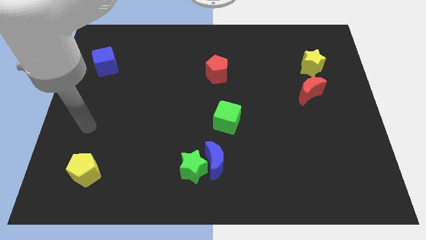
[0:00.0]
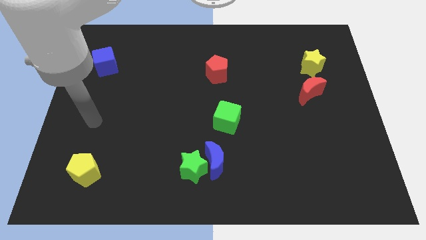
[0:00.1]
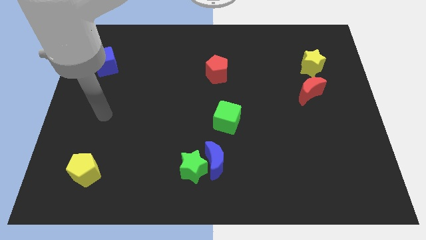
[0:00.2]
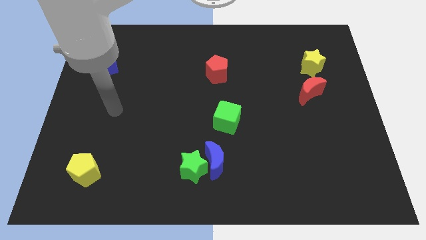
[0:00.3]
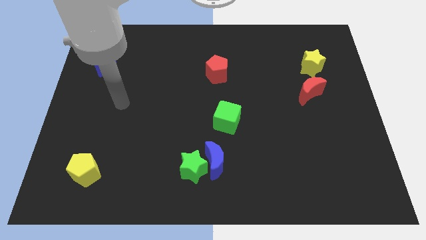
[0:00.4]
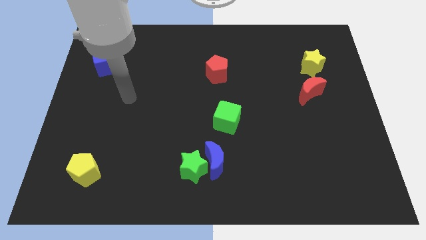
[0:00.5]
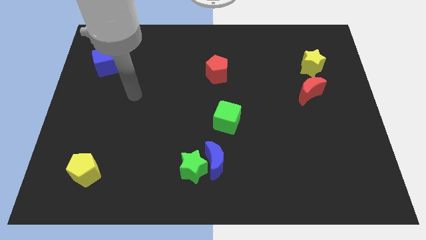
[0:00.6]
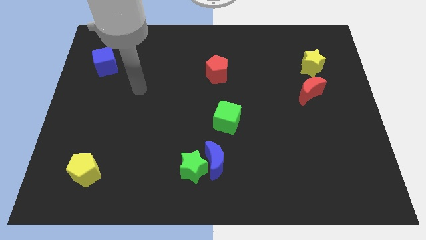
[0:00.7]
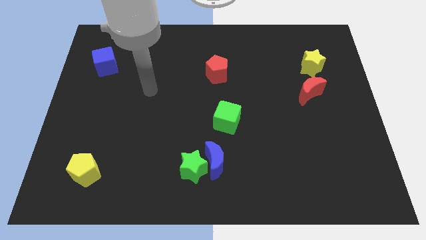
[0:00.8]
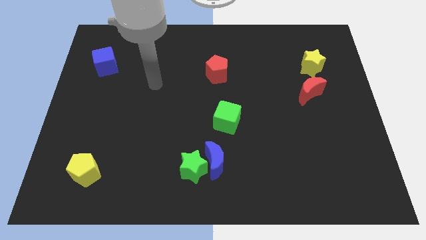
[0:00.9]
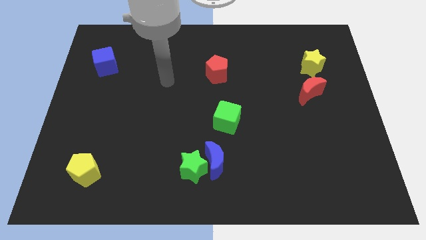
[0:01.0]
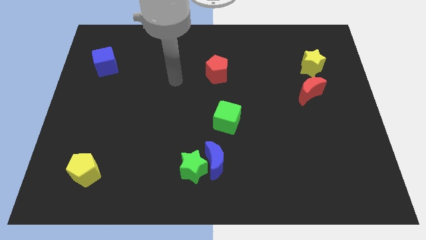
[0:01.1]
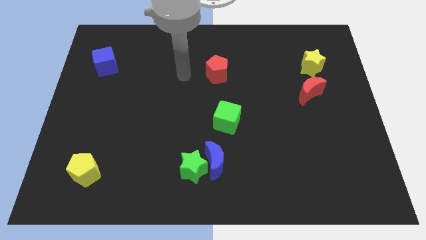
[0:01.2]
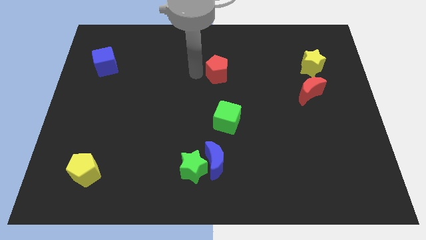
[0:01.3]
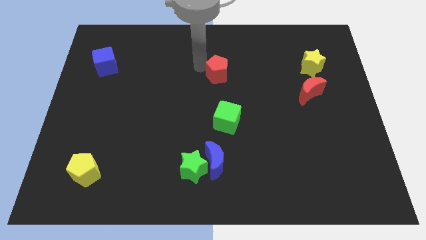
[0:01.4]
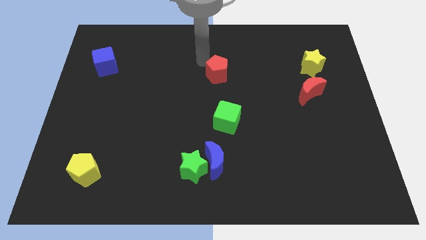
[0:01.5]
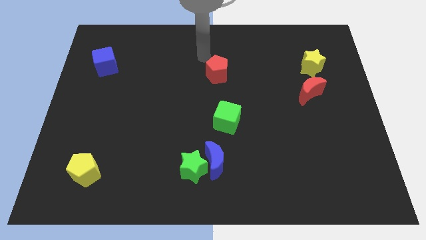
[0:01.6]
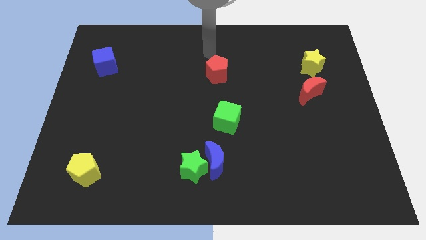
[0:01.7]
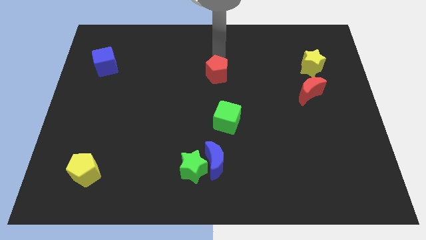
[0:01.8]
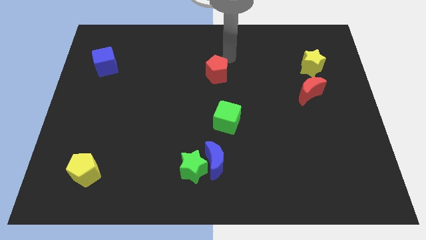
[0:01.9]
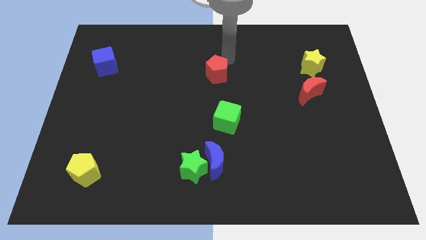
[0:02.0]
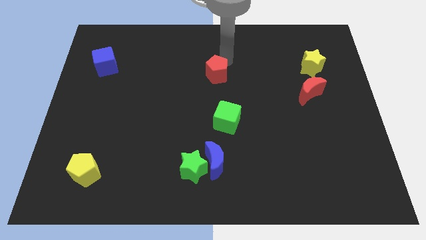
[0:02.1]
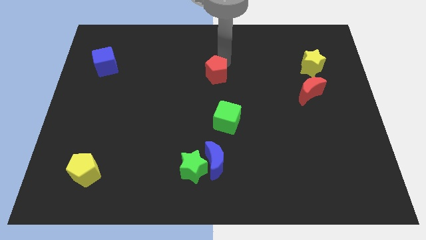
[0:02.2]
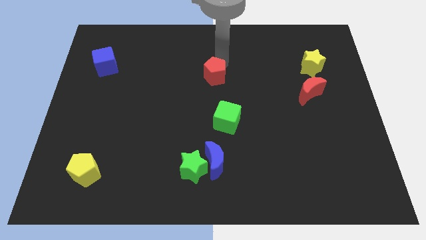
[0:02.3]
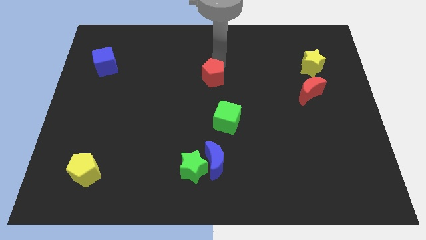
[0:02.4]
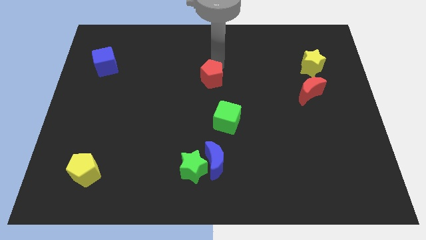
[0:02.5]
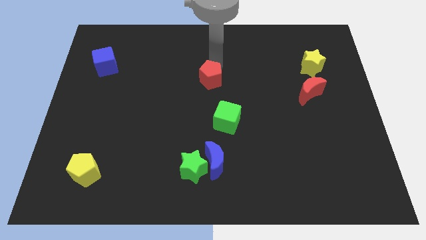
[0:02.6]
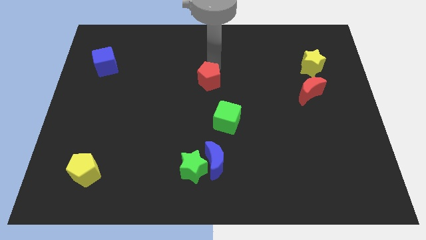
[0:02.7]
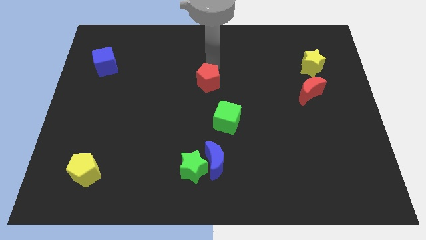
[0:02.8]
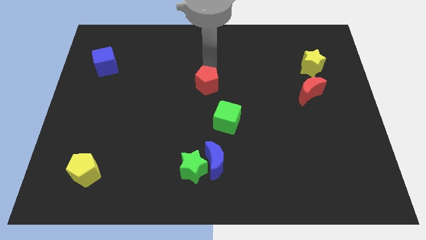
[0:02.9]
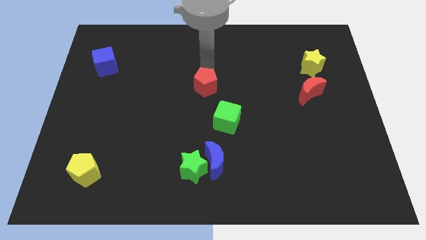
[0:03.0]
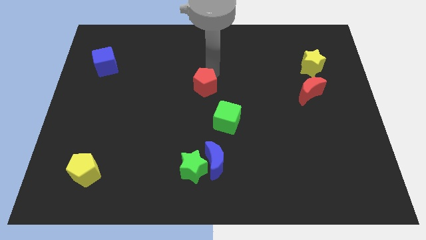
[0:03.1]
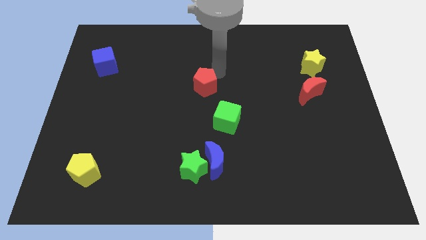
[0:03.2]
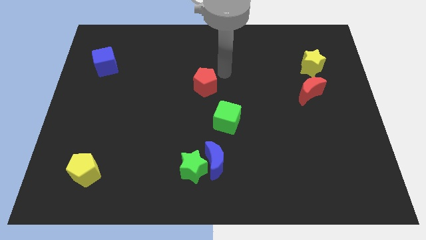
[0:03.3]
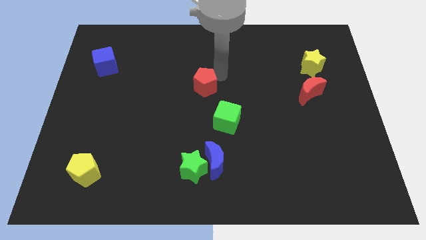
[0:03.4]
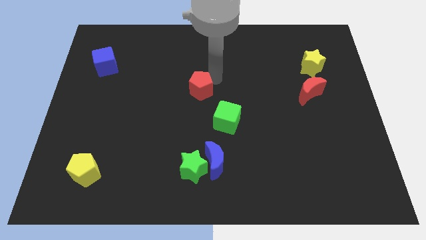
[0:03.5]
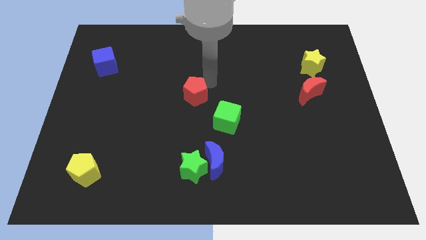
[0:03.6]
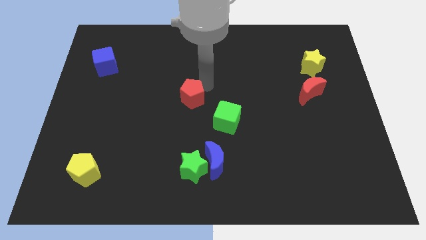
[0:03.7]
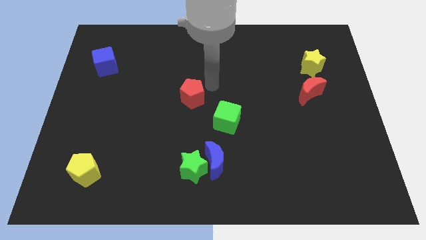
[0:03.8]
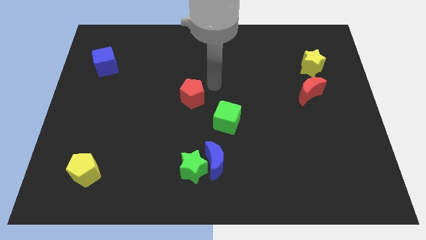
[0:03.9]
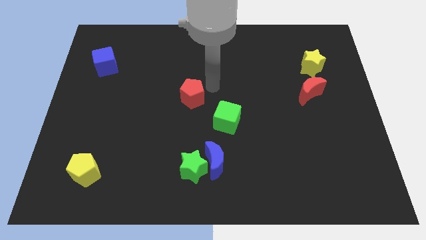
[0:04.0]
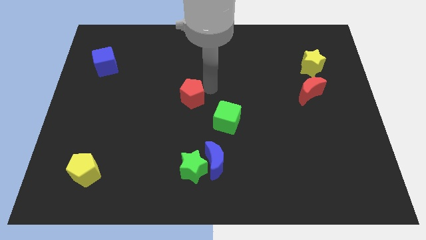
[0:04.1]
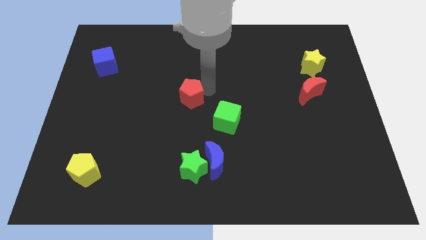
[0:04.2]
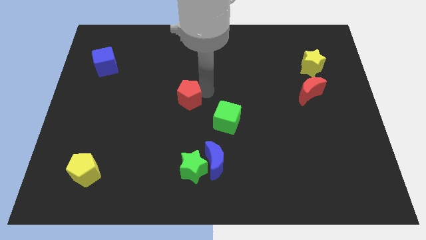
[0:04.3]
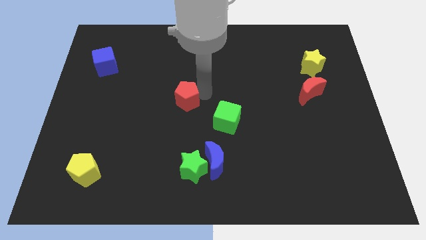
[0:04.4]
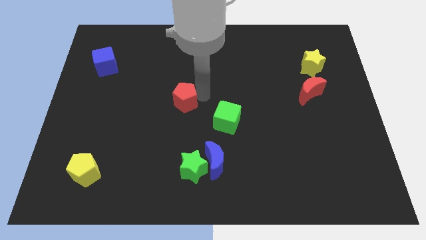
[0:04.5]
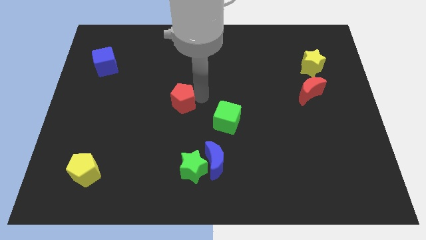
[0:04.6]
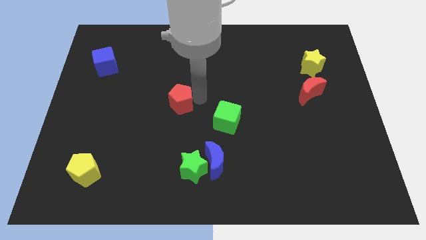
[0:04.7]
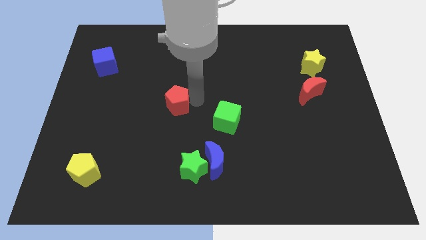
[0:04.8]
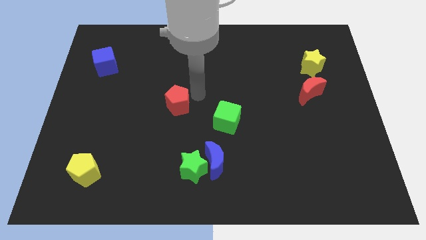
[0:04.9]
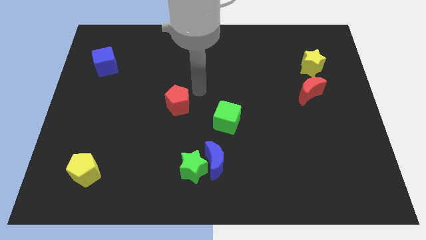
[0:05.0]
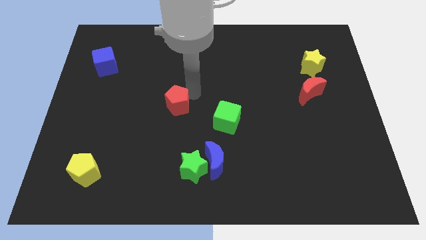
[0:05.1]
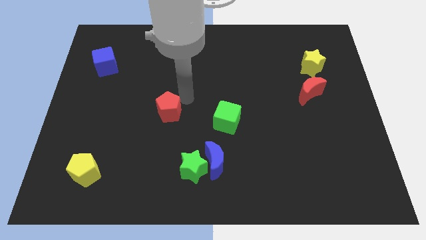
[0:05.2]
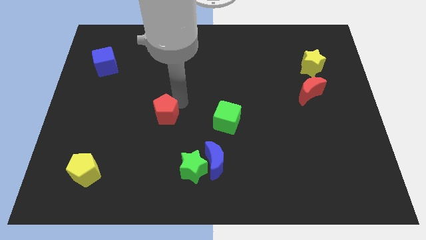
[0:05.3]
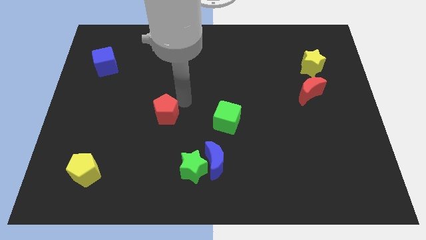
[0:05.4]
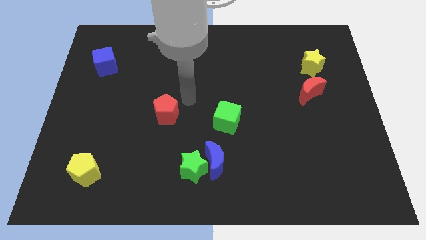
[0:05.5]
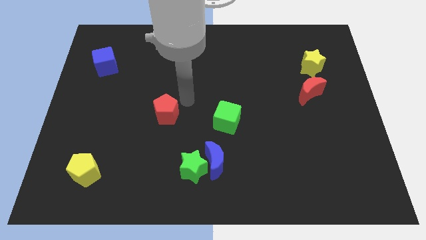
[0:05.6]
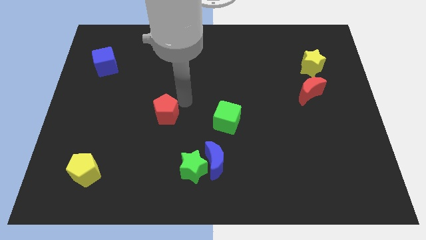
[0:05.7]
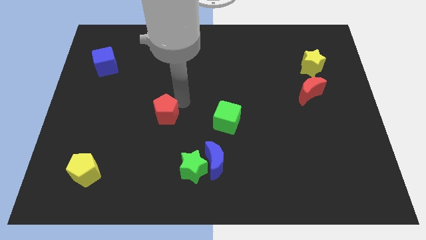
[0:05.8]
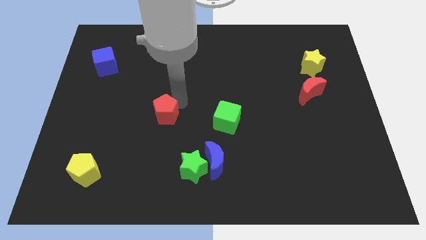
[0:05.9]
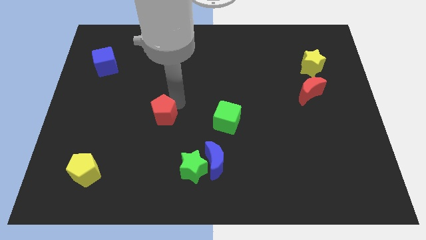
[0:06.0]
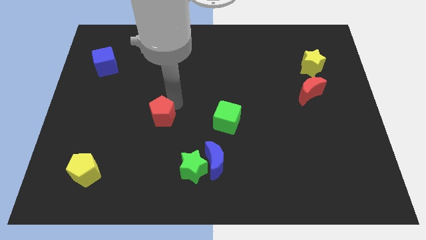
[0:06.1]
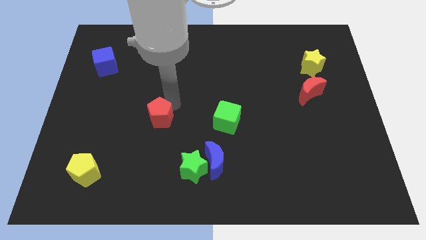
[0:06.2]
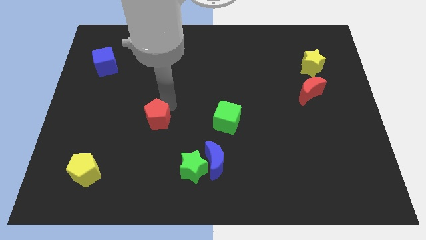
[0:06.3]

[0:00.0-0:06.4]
push the red pentagon diagonally downwards and to the left

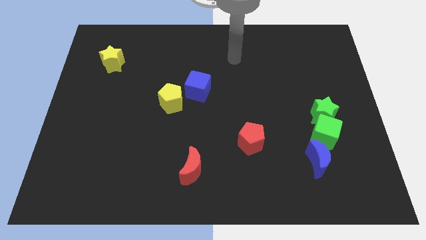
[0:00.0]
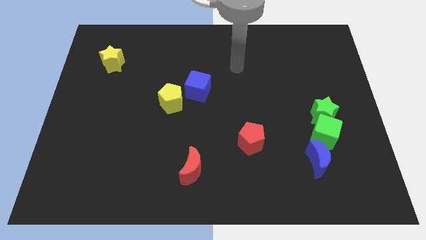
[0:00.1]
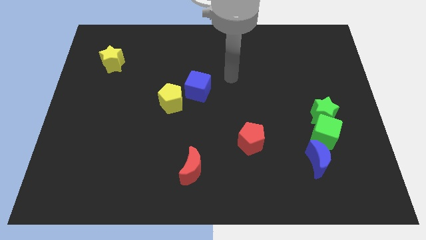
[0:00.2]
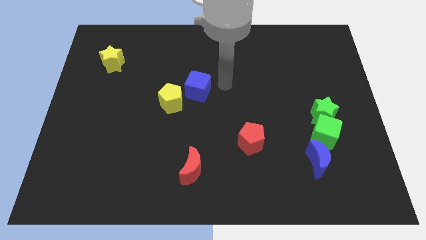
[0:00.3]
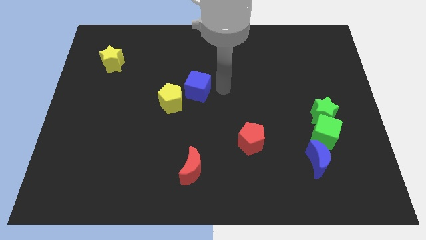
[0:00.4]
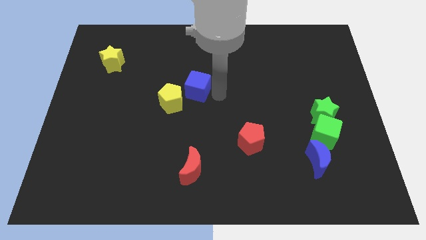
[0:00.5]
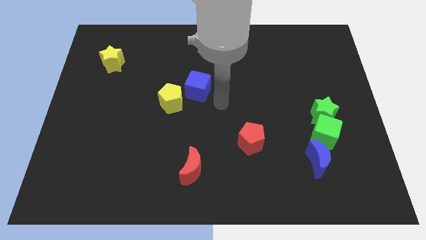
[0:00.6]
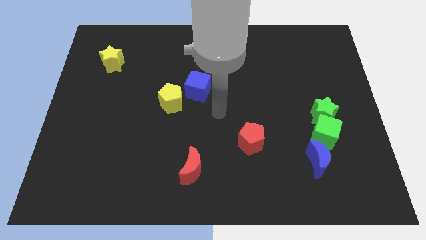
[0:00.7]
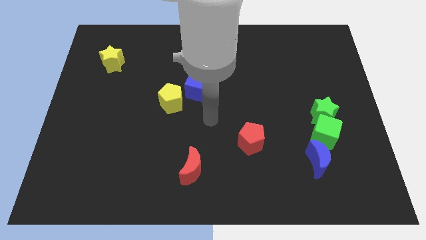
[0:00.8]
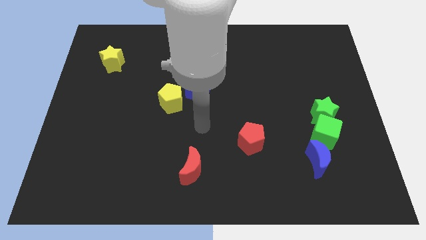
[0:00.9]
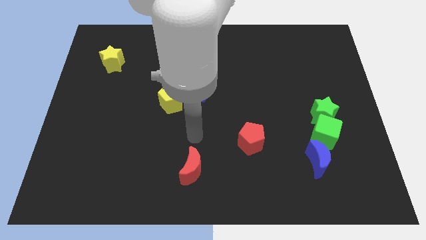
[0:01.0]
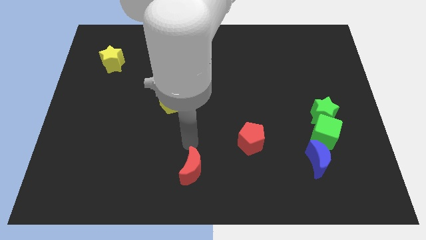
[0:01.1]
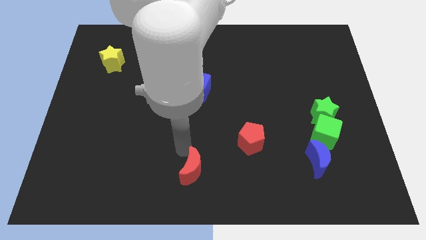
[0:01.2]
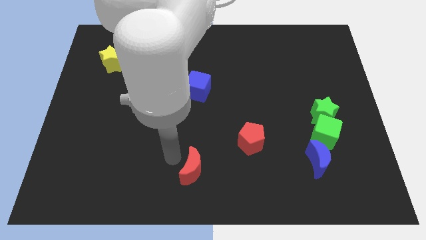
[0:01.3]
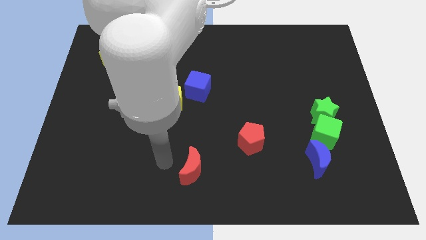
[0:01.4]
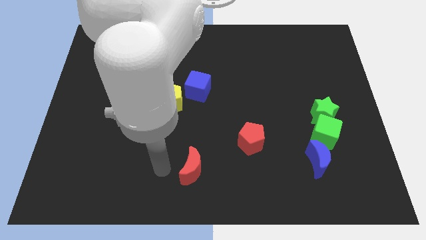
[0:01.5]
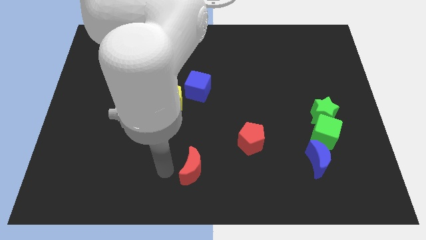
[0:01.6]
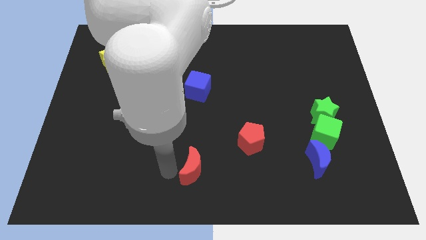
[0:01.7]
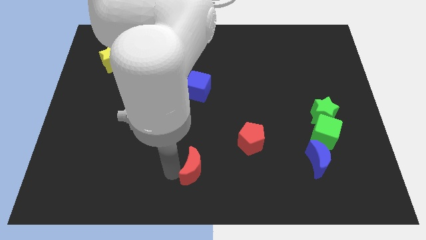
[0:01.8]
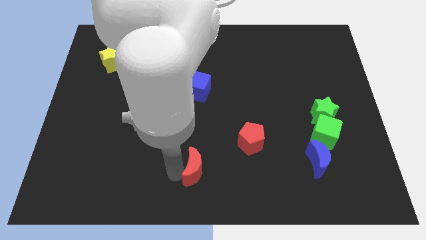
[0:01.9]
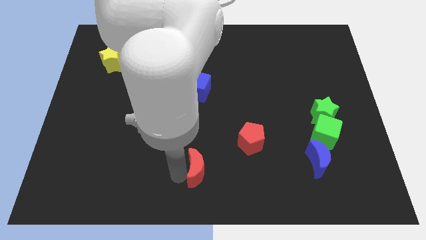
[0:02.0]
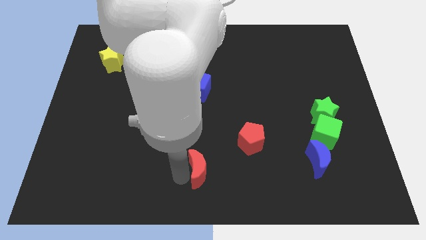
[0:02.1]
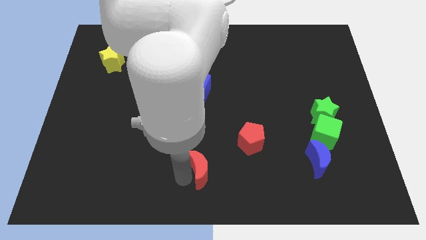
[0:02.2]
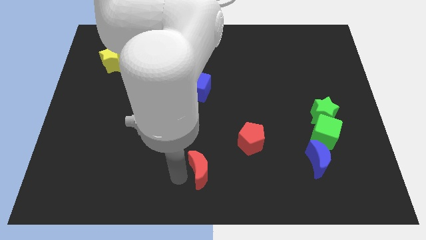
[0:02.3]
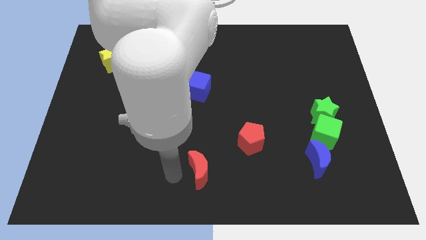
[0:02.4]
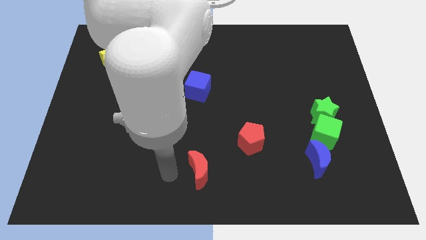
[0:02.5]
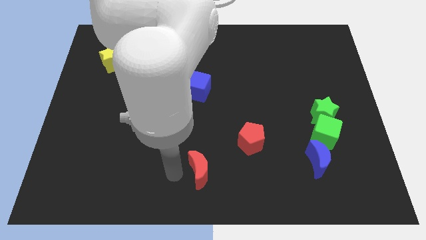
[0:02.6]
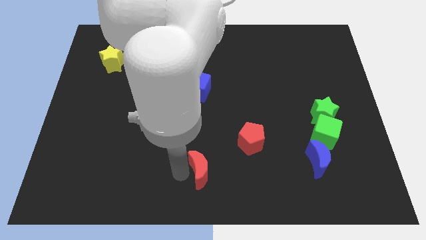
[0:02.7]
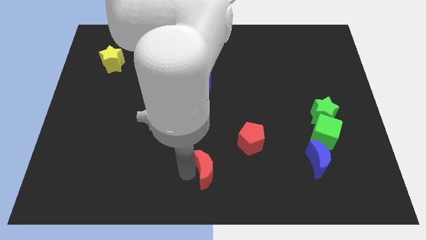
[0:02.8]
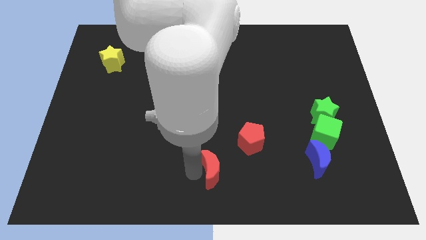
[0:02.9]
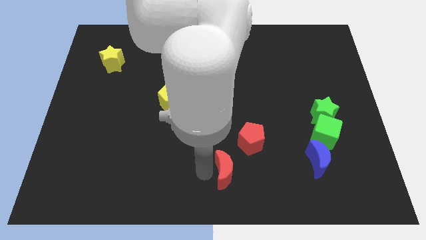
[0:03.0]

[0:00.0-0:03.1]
move the red moon somewhat right
